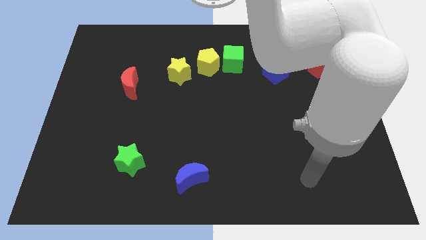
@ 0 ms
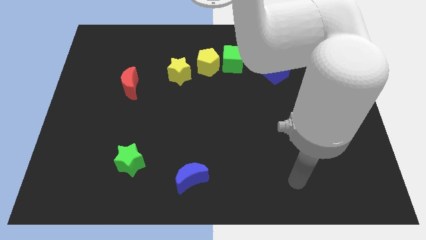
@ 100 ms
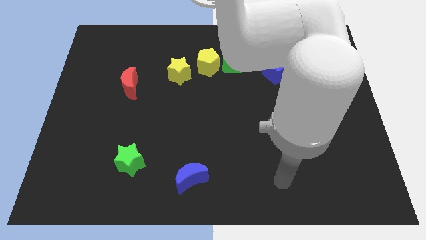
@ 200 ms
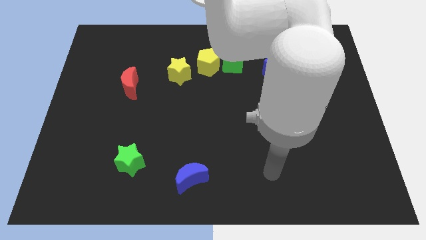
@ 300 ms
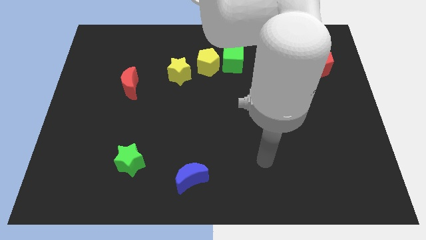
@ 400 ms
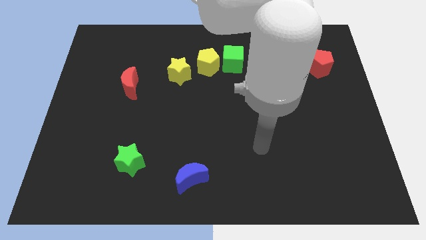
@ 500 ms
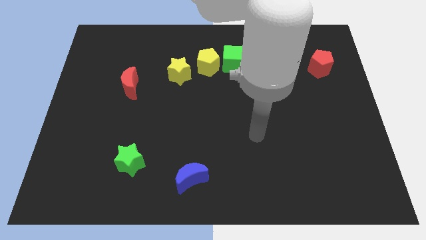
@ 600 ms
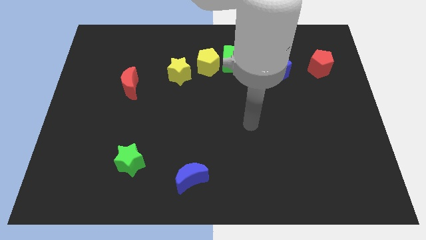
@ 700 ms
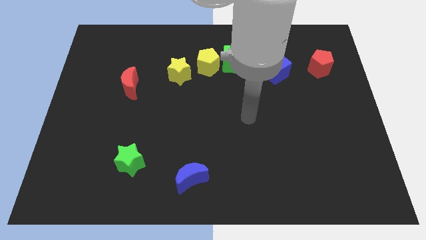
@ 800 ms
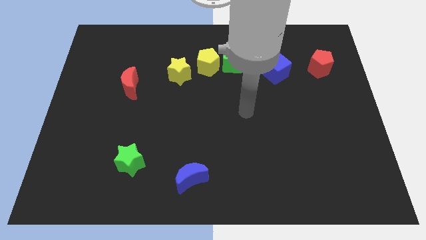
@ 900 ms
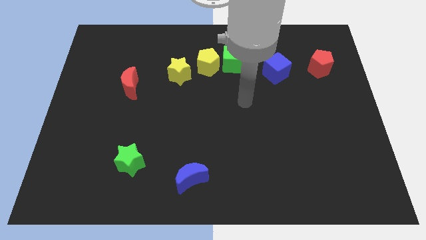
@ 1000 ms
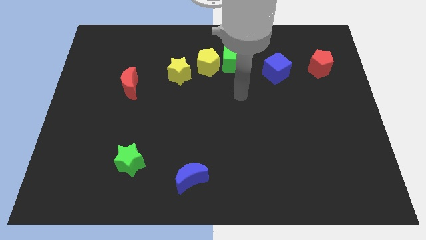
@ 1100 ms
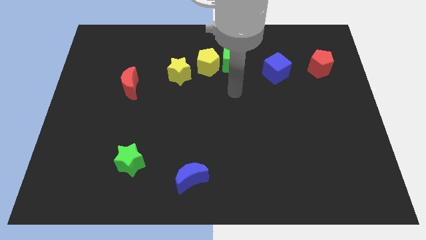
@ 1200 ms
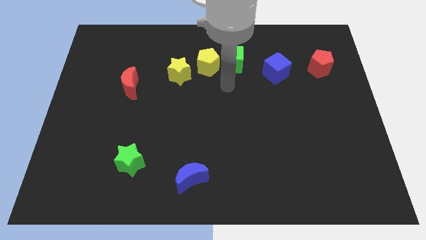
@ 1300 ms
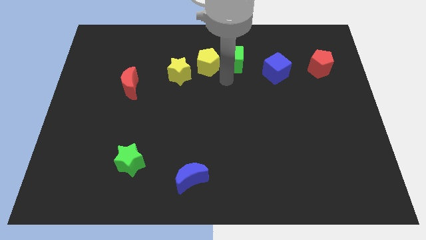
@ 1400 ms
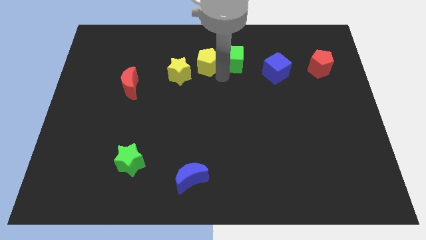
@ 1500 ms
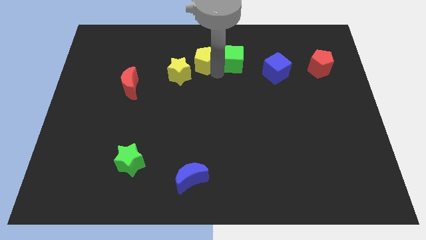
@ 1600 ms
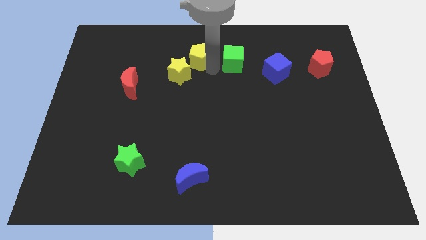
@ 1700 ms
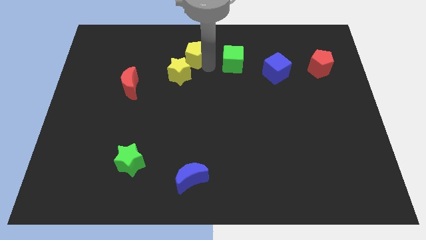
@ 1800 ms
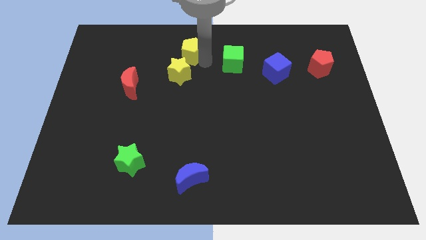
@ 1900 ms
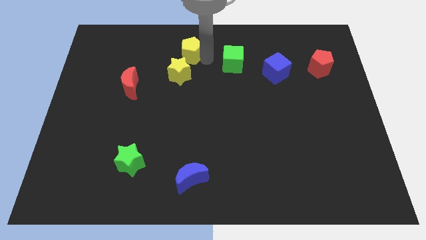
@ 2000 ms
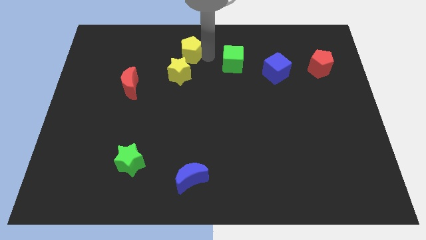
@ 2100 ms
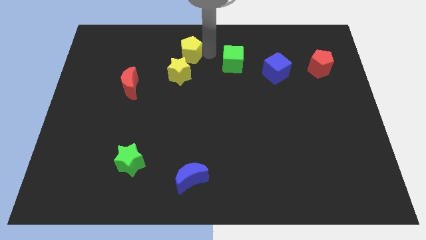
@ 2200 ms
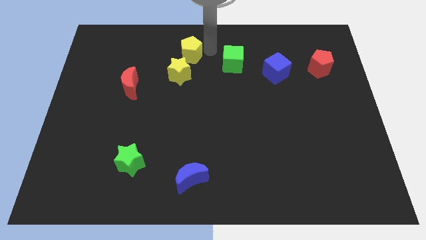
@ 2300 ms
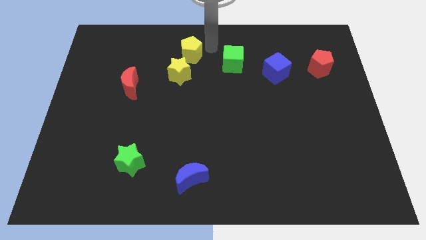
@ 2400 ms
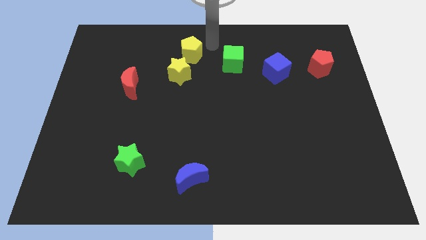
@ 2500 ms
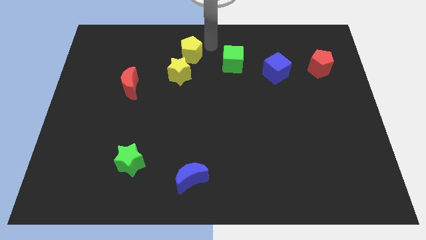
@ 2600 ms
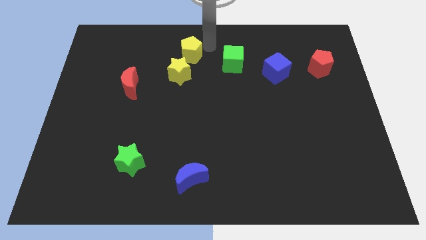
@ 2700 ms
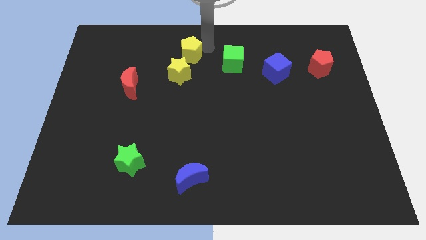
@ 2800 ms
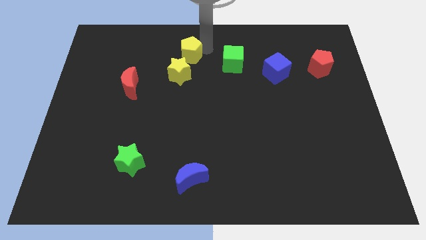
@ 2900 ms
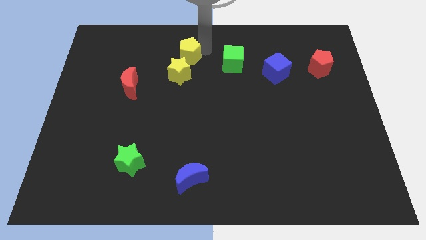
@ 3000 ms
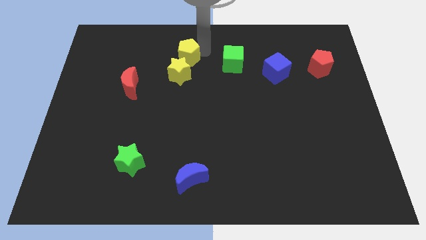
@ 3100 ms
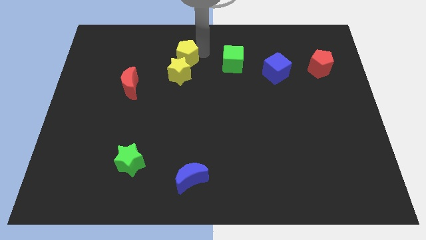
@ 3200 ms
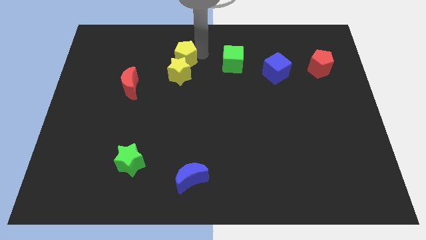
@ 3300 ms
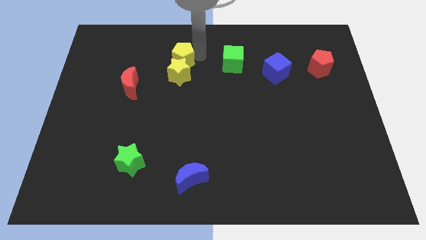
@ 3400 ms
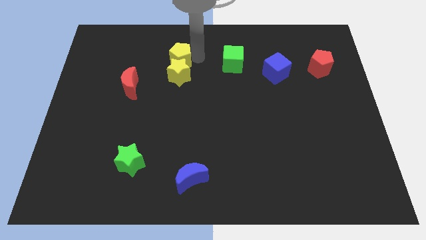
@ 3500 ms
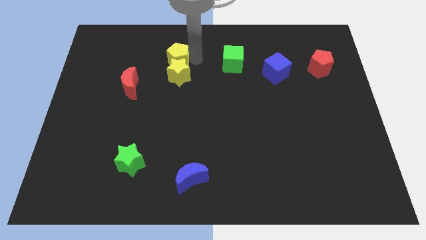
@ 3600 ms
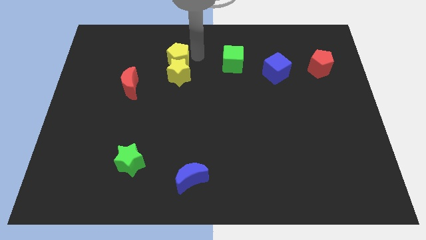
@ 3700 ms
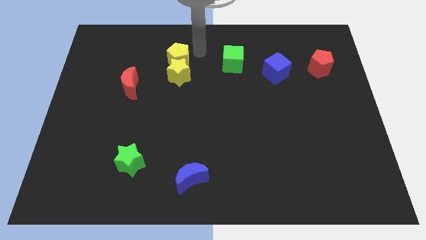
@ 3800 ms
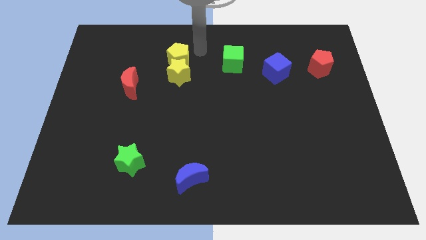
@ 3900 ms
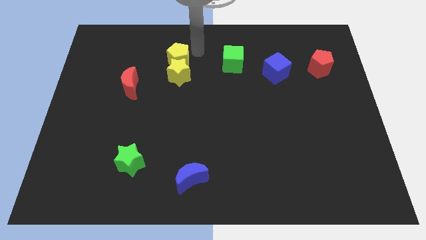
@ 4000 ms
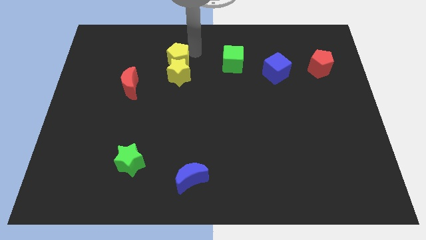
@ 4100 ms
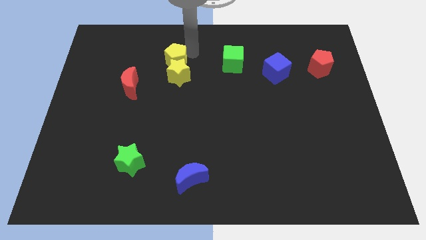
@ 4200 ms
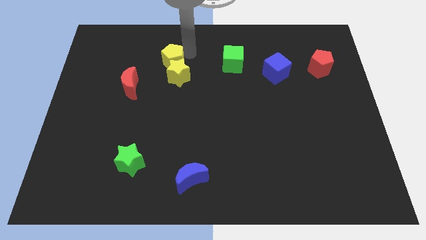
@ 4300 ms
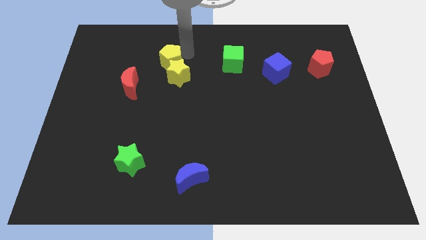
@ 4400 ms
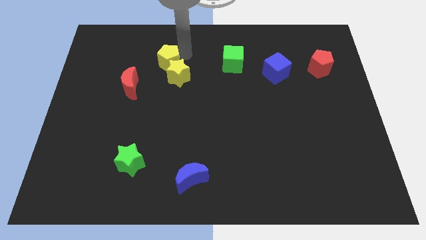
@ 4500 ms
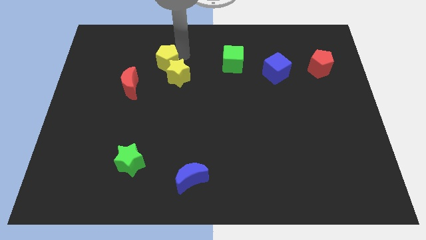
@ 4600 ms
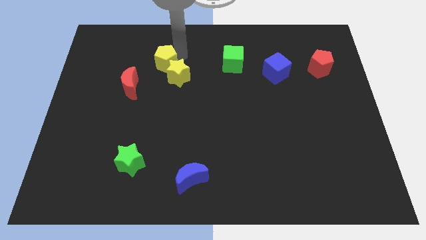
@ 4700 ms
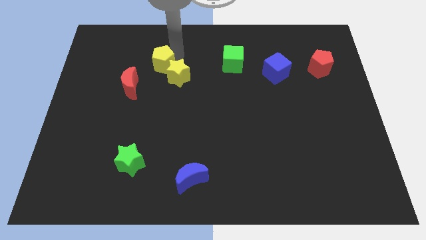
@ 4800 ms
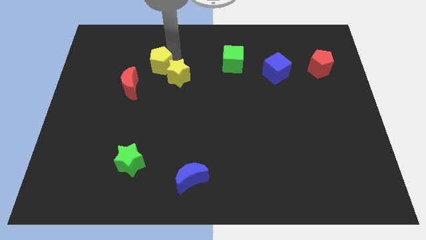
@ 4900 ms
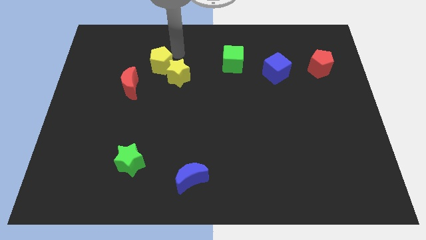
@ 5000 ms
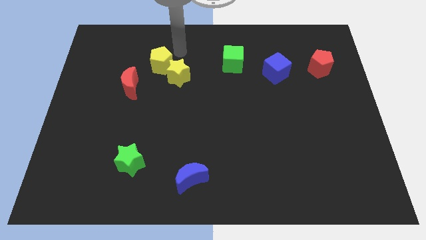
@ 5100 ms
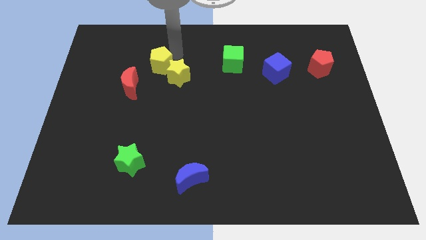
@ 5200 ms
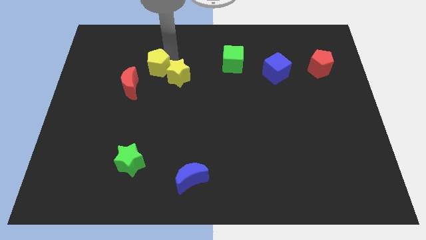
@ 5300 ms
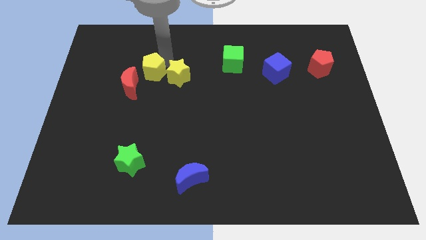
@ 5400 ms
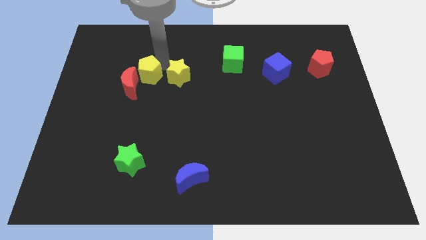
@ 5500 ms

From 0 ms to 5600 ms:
push the yellow pentagon close to the red moon

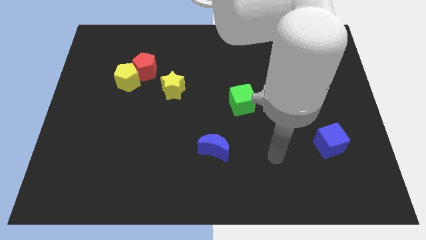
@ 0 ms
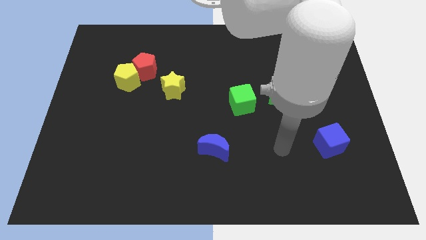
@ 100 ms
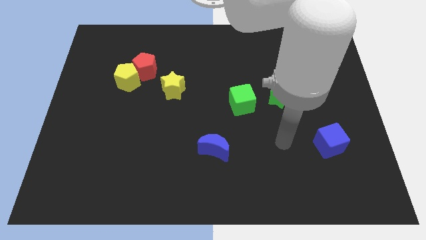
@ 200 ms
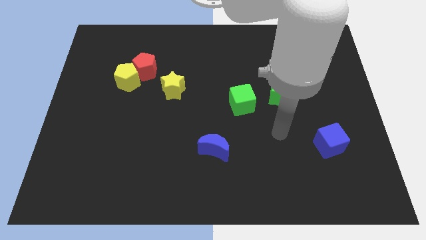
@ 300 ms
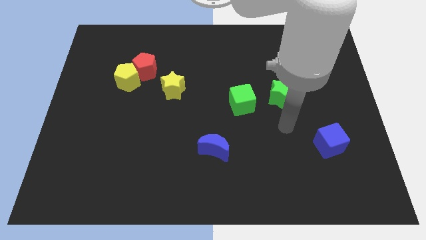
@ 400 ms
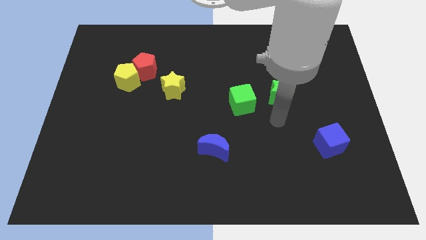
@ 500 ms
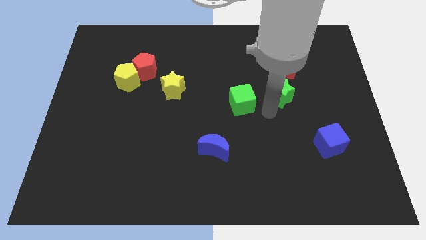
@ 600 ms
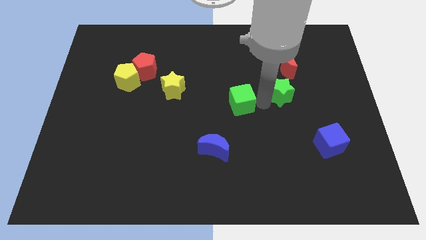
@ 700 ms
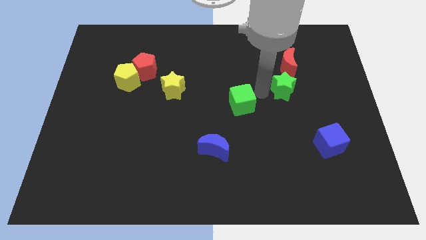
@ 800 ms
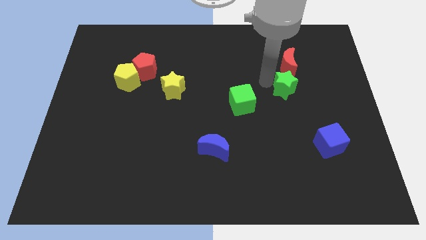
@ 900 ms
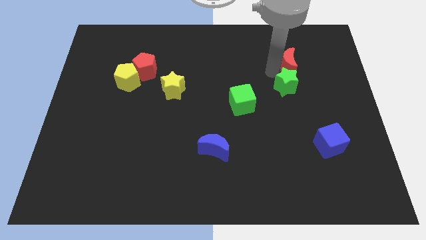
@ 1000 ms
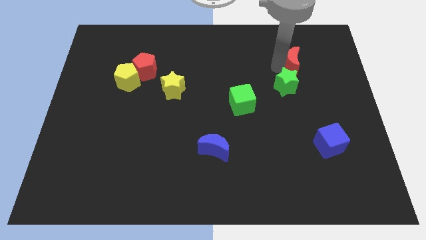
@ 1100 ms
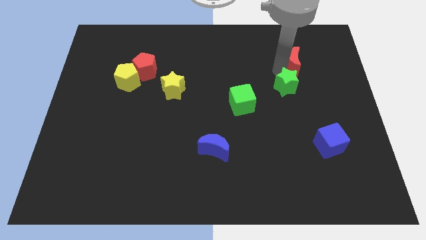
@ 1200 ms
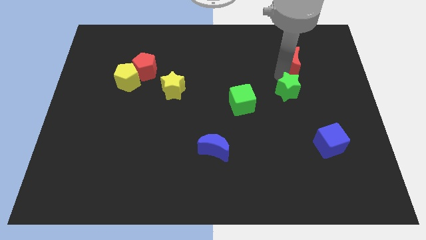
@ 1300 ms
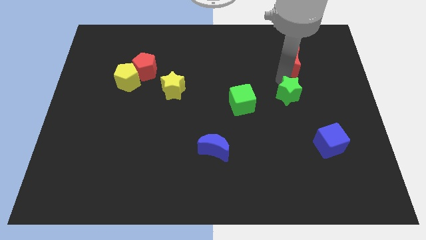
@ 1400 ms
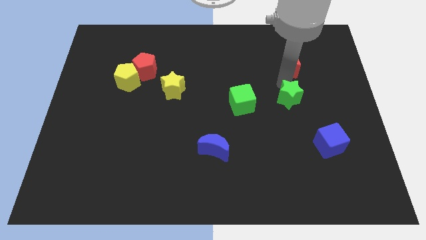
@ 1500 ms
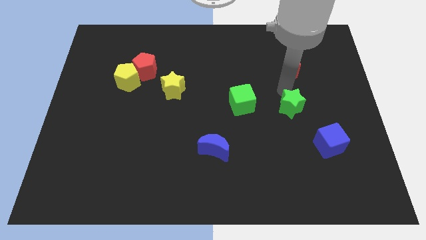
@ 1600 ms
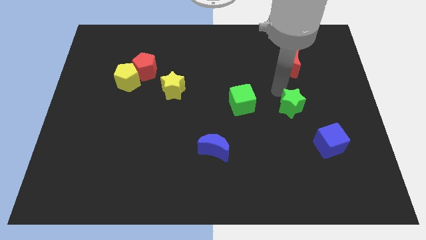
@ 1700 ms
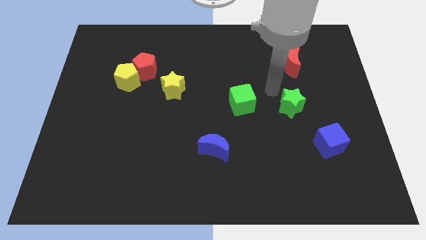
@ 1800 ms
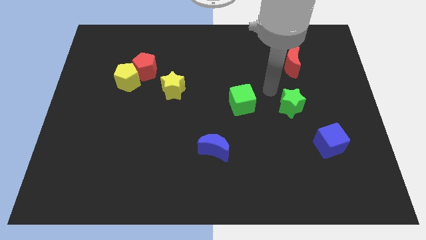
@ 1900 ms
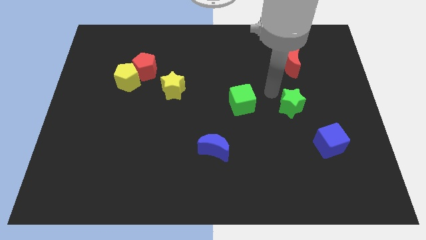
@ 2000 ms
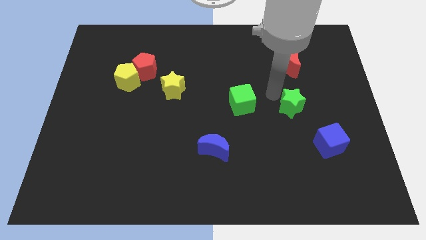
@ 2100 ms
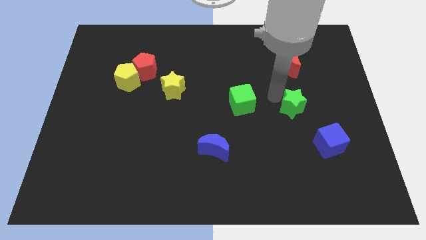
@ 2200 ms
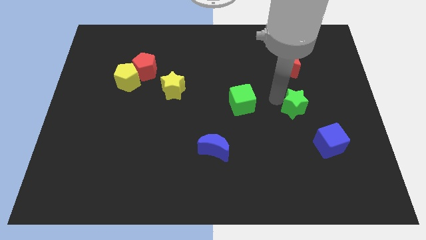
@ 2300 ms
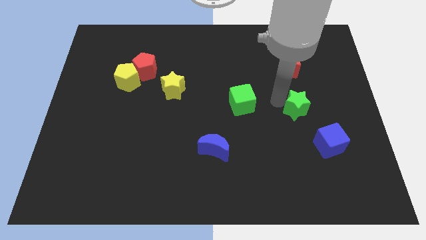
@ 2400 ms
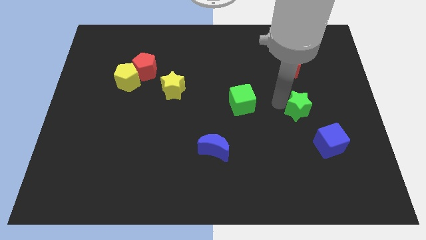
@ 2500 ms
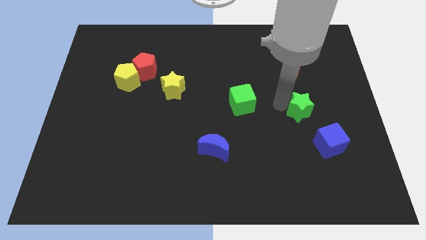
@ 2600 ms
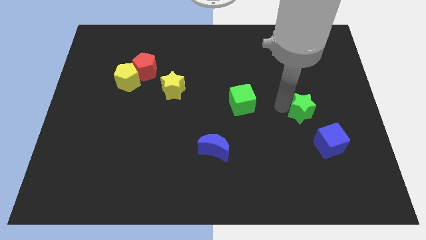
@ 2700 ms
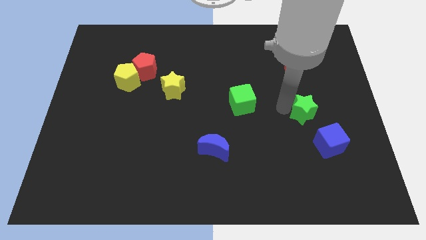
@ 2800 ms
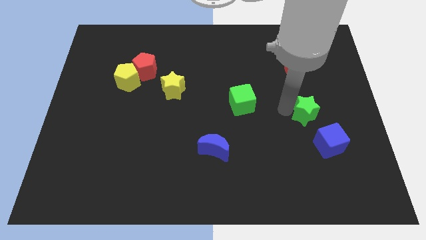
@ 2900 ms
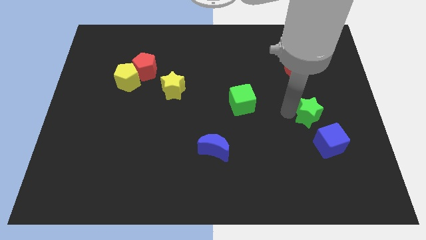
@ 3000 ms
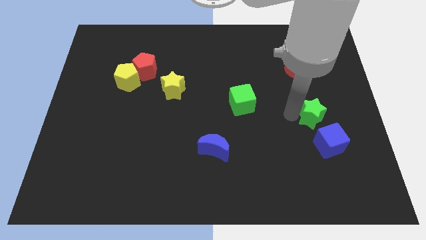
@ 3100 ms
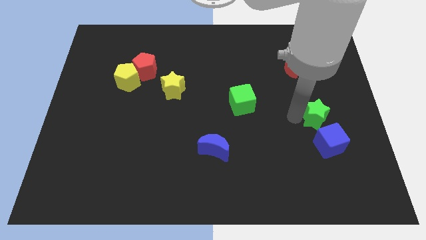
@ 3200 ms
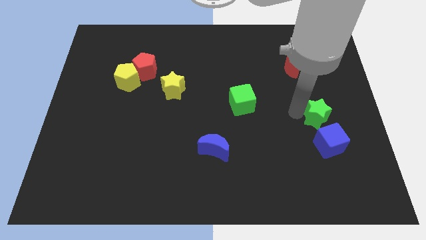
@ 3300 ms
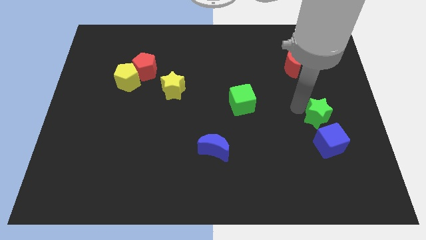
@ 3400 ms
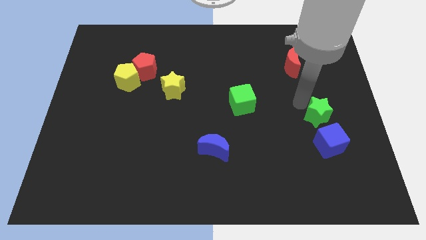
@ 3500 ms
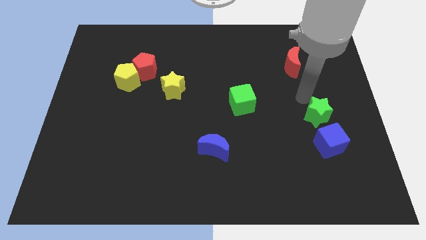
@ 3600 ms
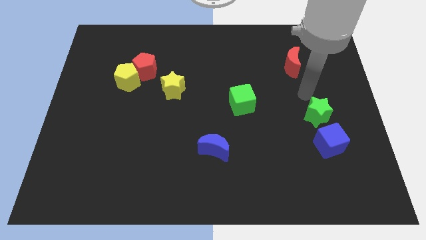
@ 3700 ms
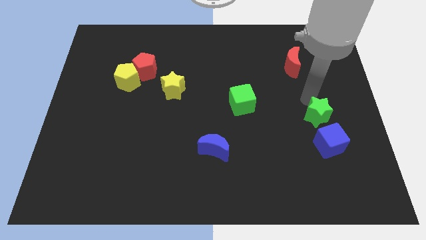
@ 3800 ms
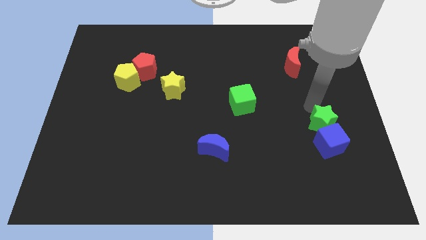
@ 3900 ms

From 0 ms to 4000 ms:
push the green star to the blue cube
